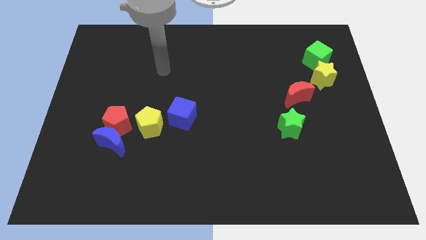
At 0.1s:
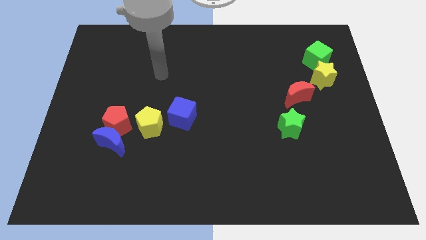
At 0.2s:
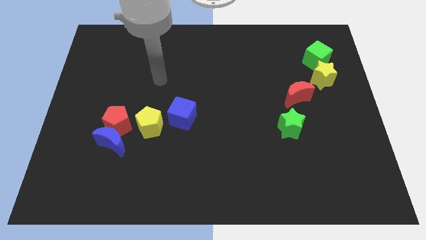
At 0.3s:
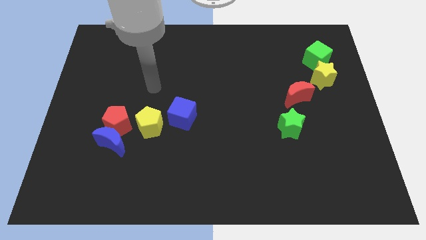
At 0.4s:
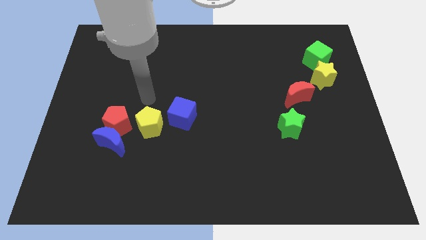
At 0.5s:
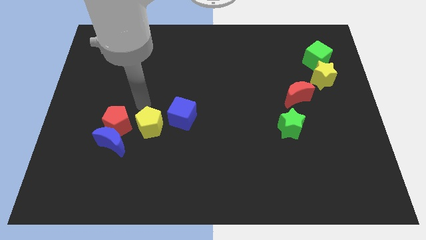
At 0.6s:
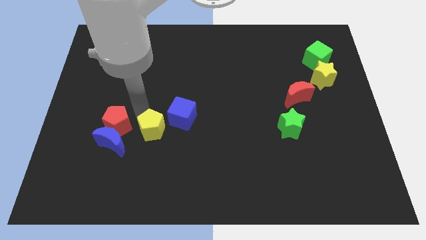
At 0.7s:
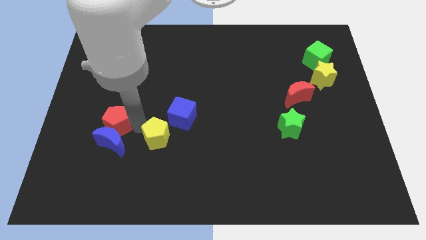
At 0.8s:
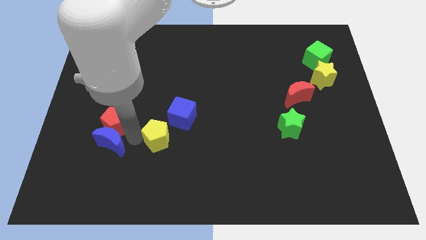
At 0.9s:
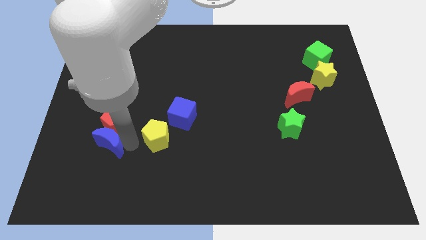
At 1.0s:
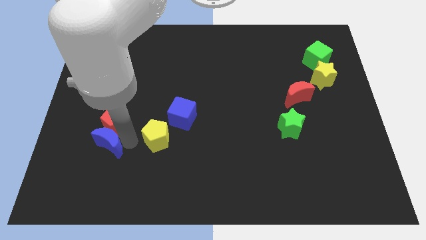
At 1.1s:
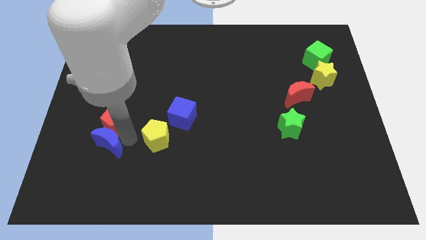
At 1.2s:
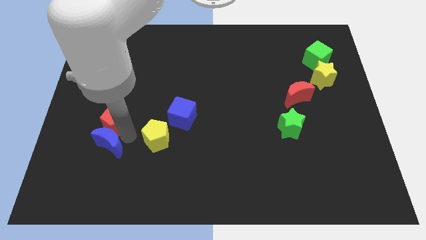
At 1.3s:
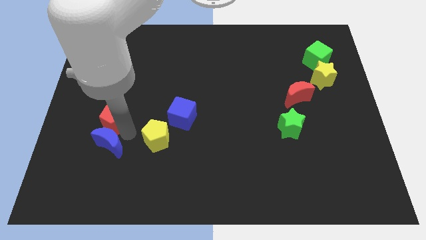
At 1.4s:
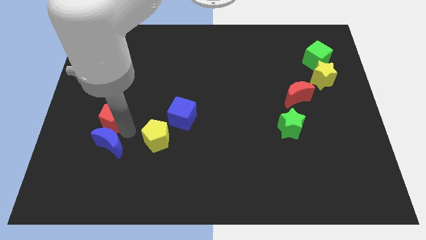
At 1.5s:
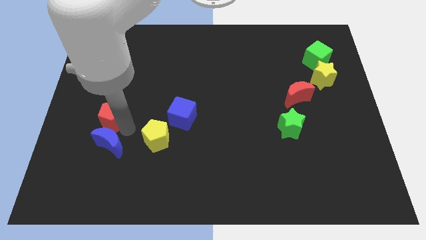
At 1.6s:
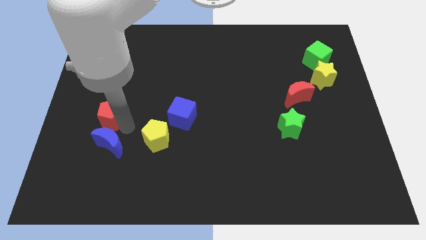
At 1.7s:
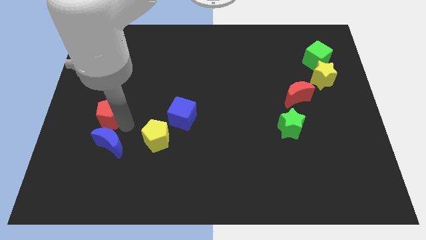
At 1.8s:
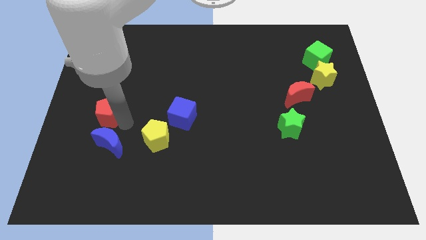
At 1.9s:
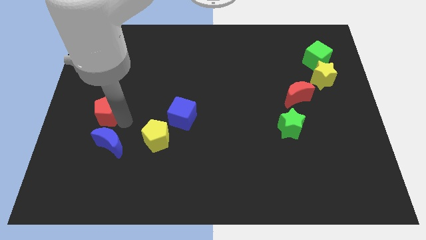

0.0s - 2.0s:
pull the red pentagon apart from the blue moon and yellow pentagon

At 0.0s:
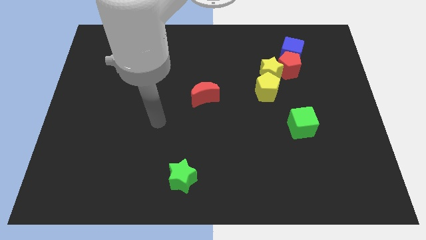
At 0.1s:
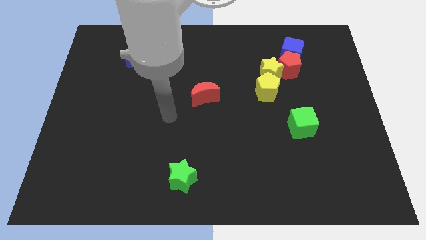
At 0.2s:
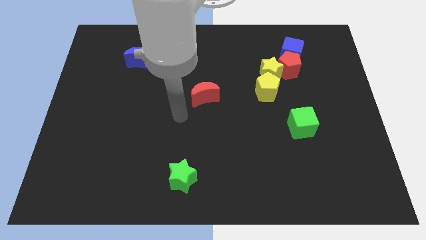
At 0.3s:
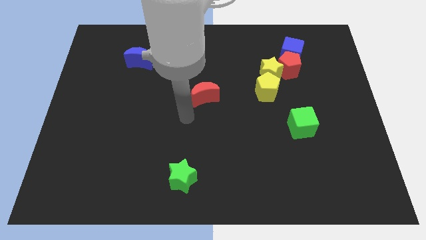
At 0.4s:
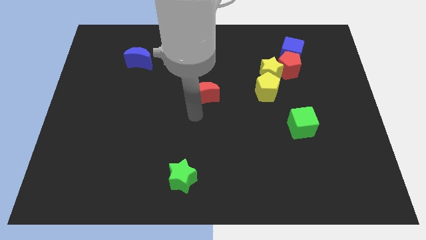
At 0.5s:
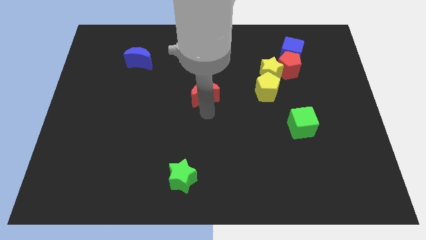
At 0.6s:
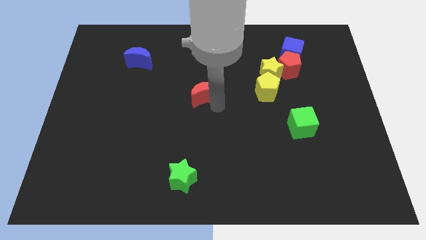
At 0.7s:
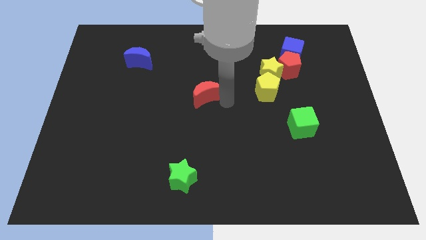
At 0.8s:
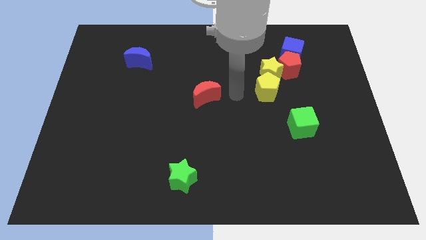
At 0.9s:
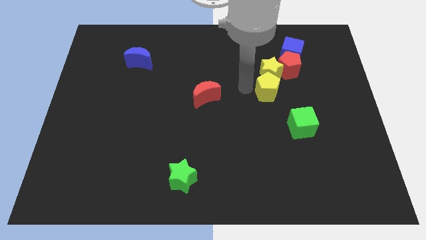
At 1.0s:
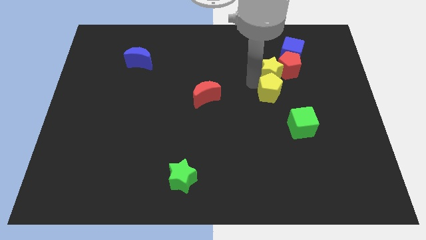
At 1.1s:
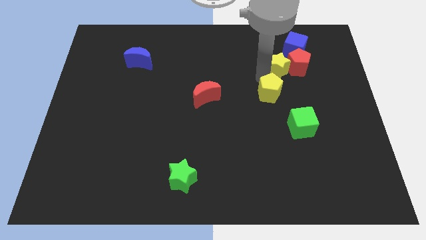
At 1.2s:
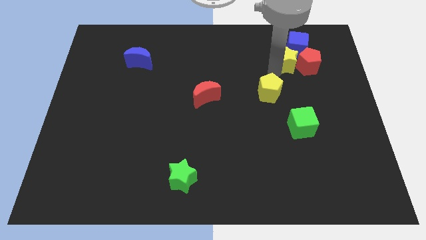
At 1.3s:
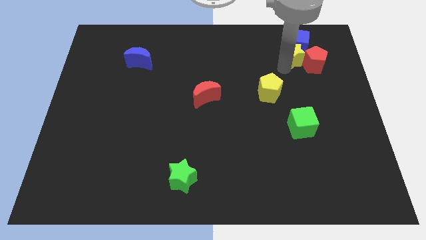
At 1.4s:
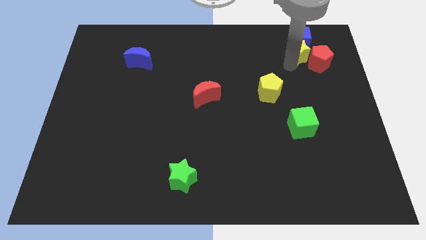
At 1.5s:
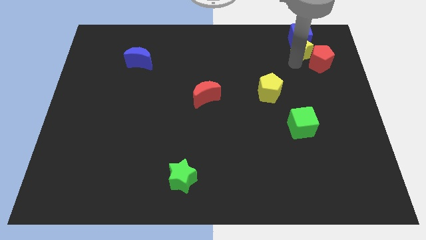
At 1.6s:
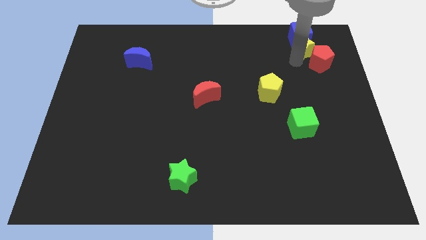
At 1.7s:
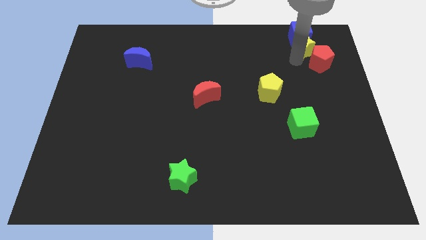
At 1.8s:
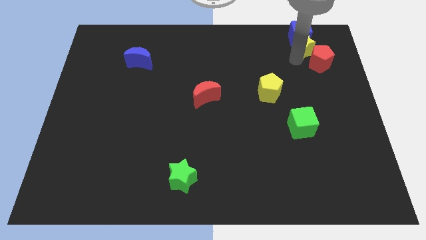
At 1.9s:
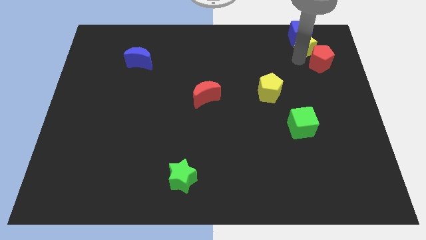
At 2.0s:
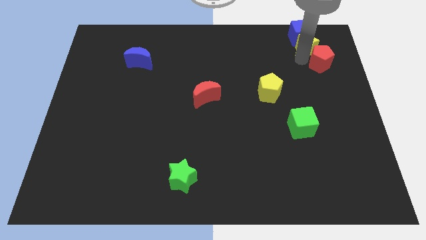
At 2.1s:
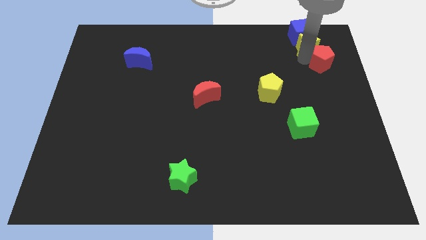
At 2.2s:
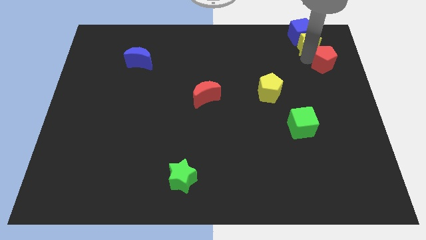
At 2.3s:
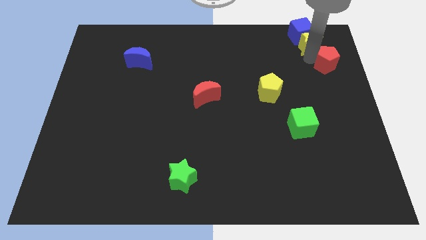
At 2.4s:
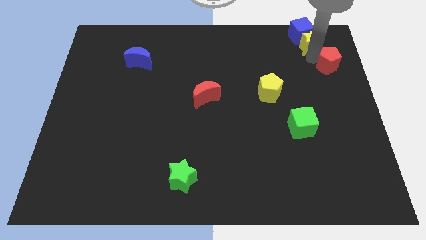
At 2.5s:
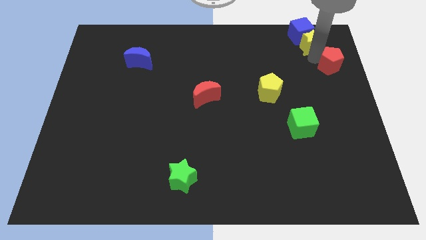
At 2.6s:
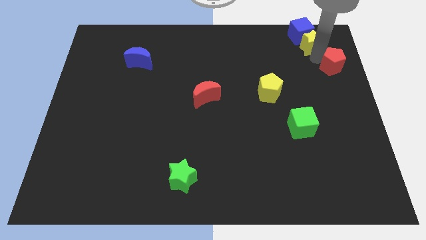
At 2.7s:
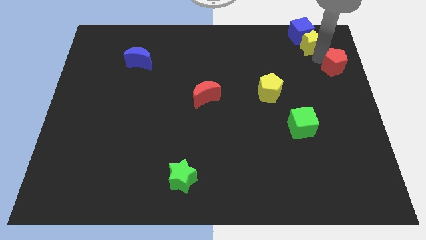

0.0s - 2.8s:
separate the red pentagon from the blue cube, yellow star, and yellow pentagon

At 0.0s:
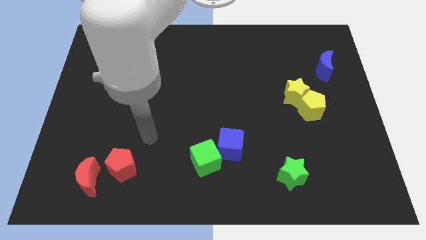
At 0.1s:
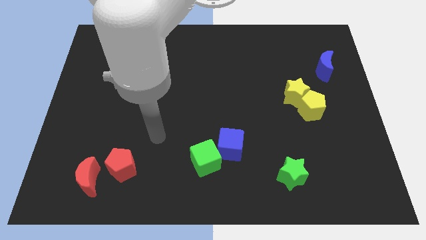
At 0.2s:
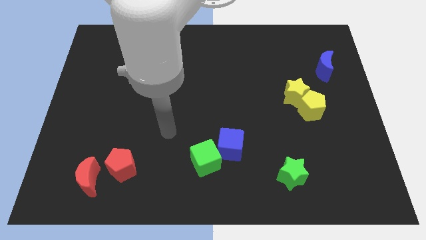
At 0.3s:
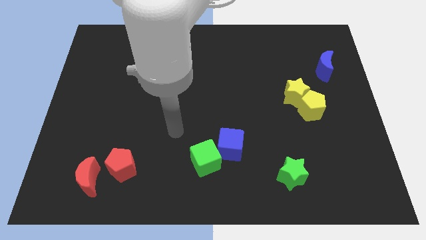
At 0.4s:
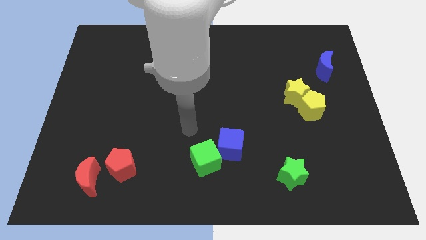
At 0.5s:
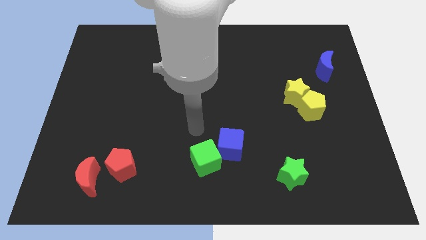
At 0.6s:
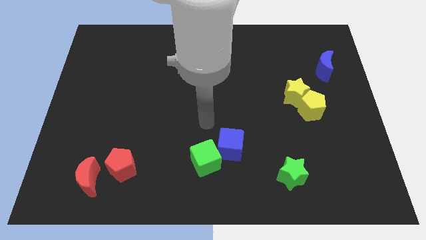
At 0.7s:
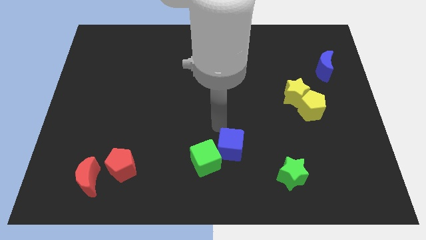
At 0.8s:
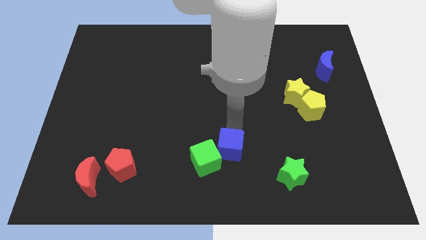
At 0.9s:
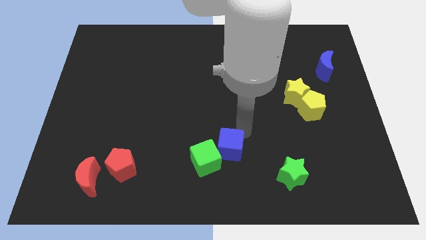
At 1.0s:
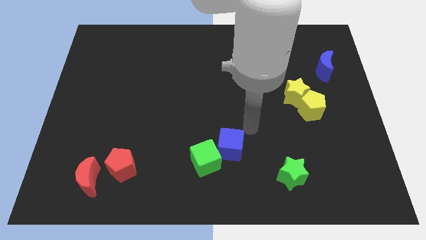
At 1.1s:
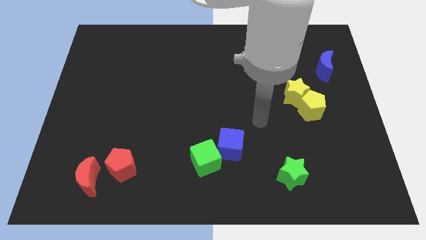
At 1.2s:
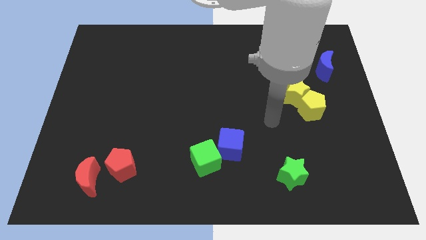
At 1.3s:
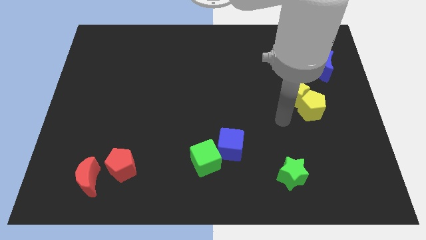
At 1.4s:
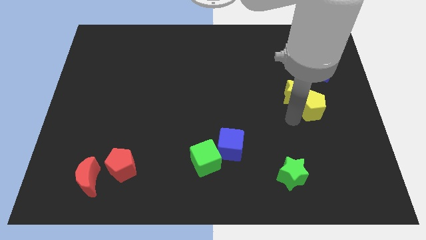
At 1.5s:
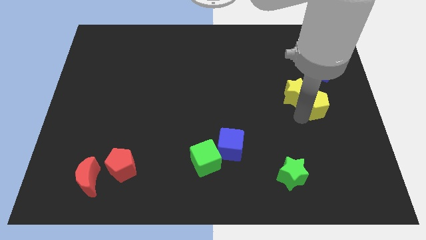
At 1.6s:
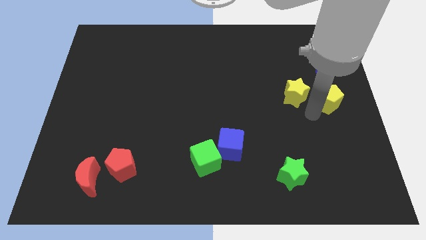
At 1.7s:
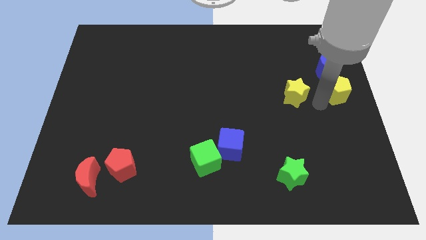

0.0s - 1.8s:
pull the yellow star apart from the yellow pentagon

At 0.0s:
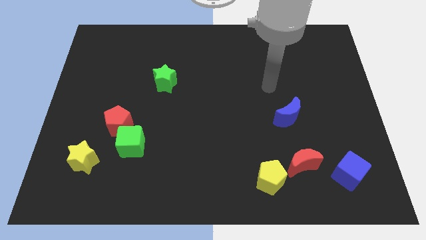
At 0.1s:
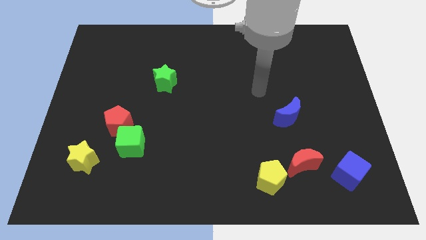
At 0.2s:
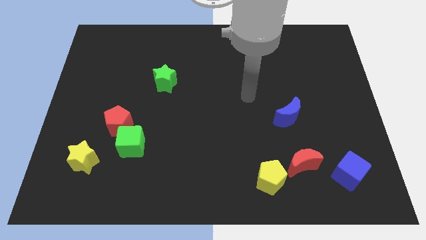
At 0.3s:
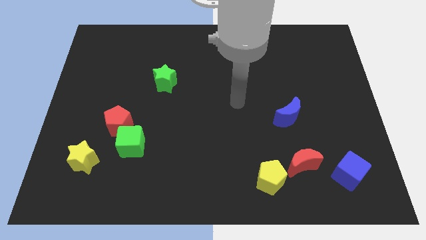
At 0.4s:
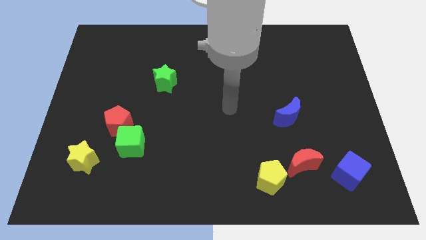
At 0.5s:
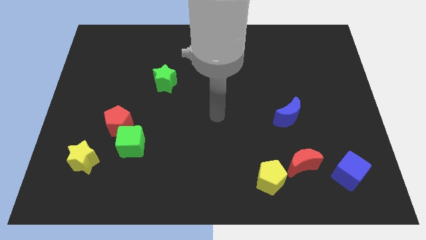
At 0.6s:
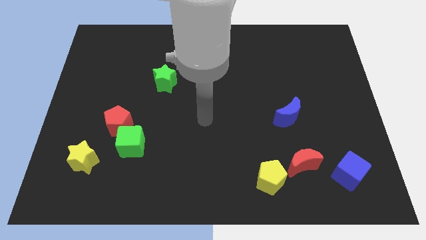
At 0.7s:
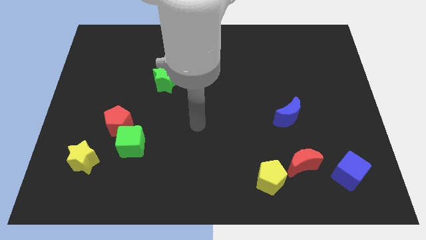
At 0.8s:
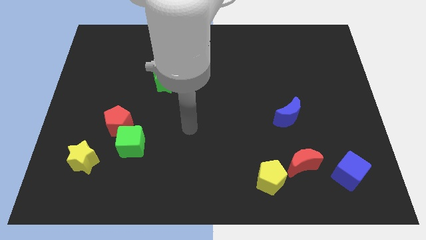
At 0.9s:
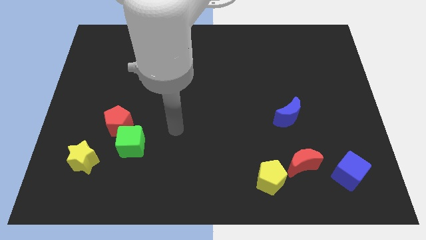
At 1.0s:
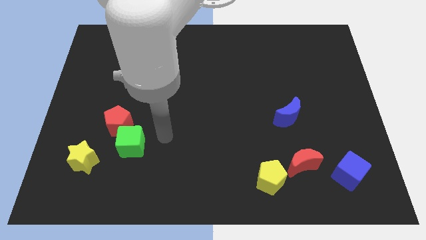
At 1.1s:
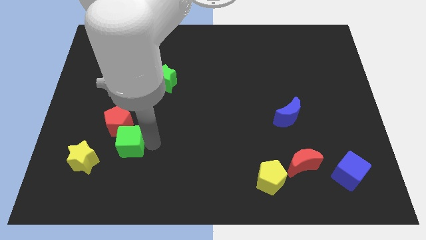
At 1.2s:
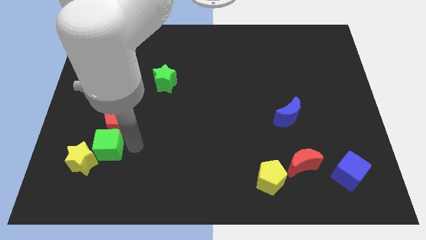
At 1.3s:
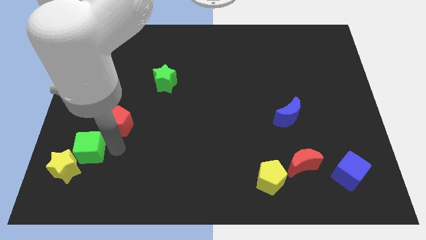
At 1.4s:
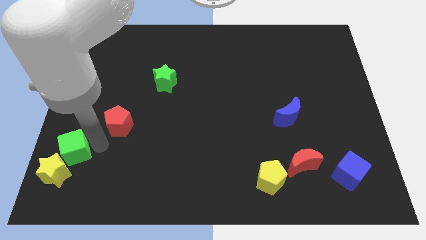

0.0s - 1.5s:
move the red pentagon away from the green cube

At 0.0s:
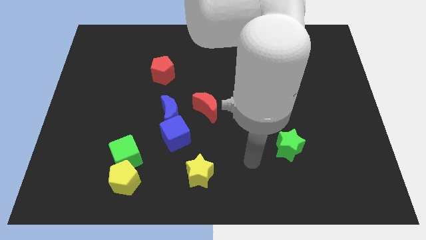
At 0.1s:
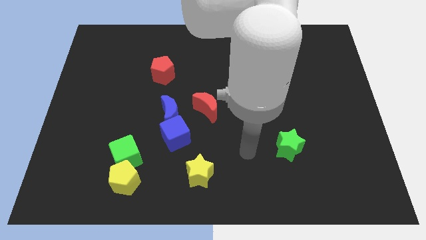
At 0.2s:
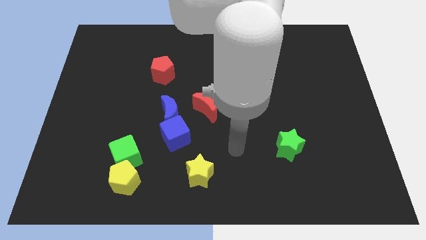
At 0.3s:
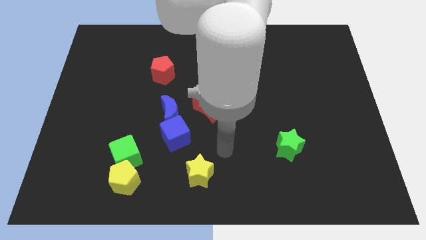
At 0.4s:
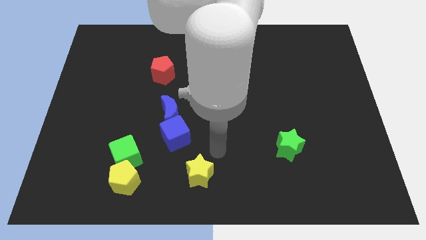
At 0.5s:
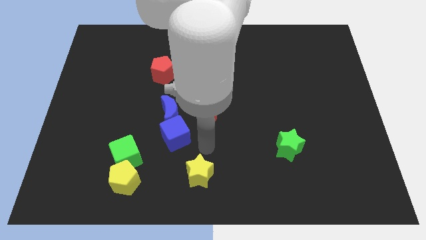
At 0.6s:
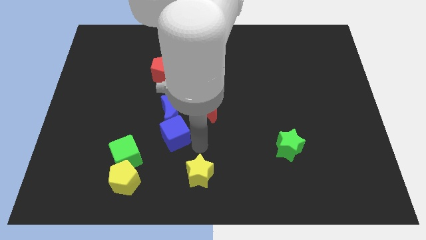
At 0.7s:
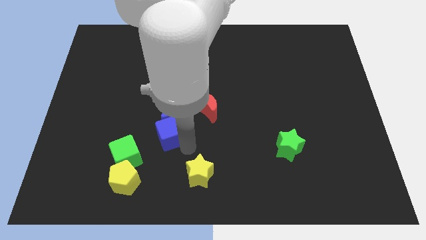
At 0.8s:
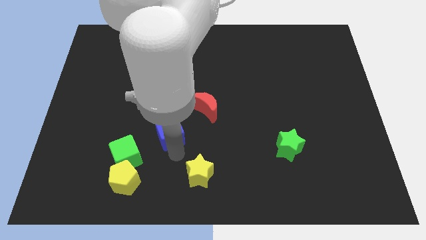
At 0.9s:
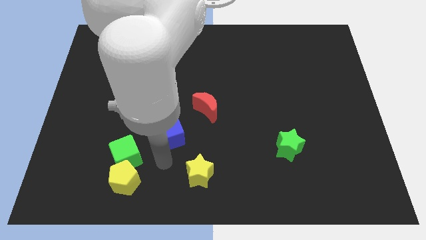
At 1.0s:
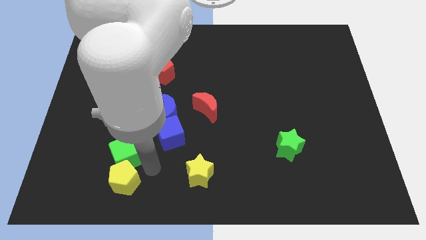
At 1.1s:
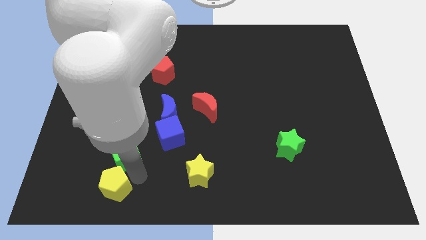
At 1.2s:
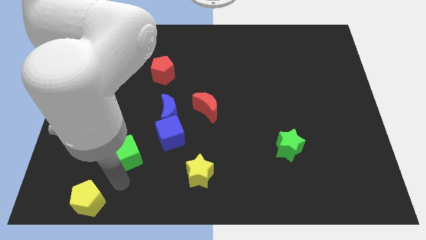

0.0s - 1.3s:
separate the green cube from the yellow pentagon
